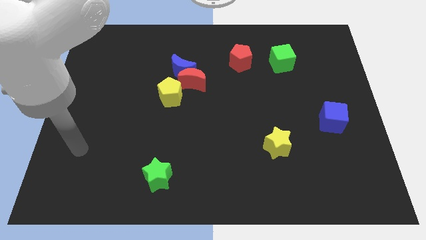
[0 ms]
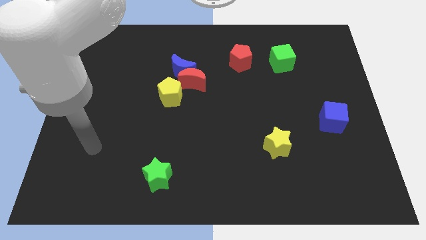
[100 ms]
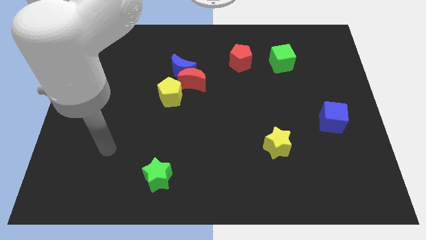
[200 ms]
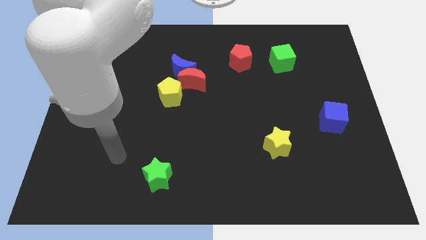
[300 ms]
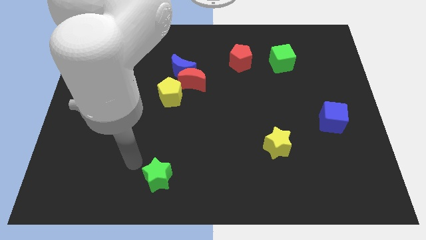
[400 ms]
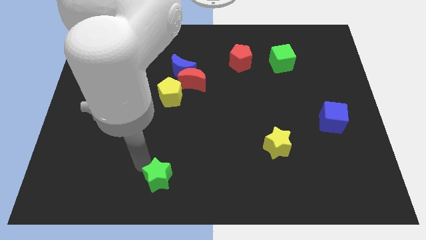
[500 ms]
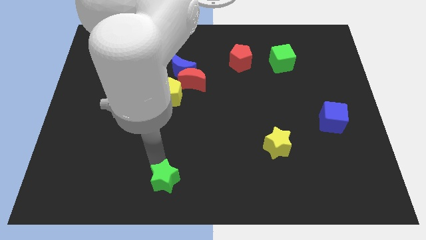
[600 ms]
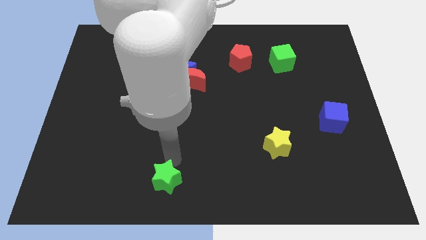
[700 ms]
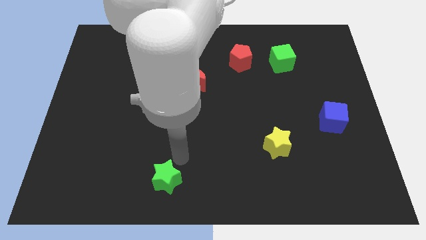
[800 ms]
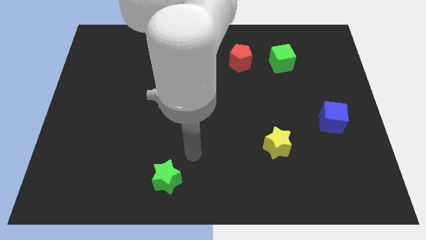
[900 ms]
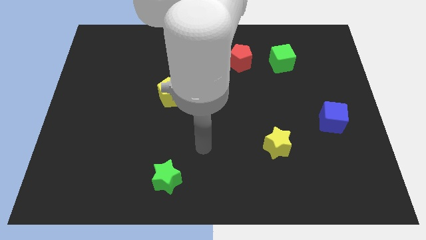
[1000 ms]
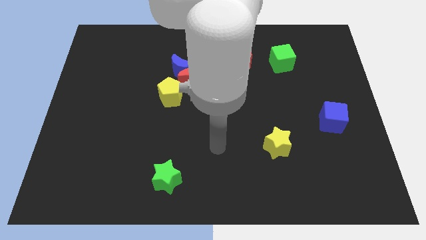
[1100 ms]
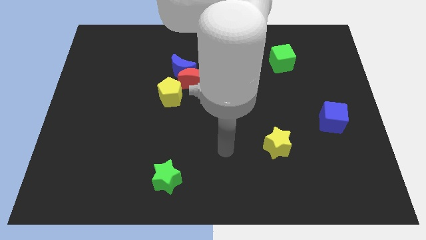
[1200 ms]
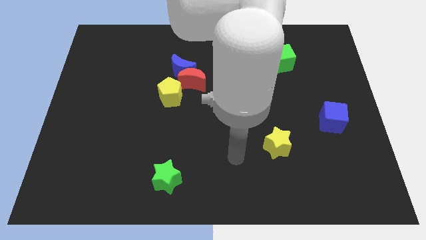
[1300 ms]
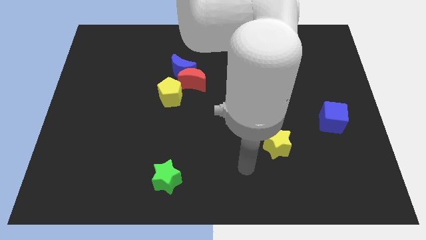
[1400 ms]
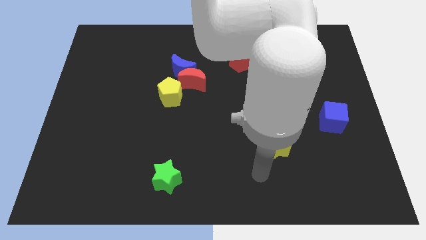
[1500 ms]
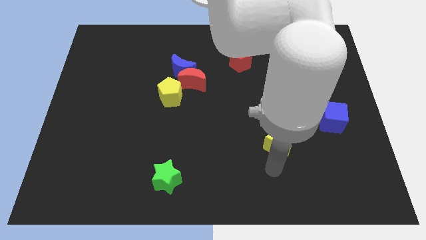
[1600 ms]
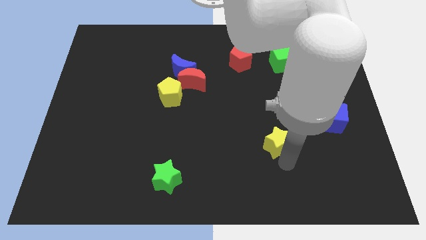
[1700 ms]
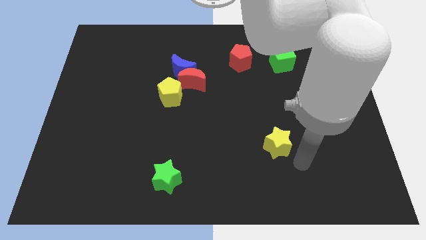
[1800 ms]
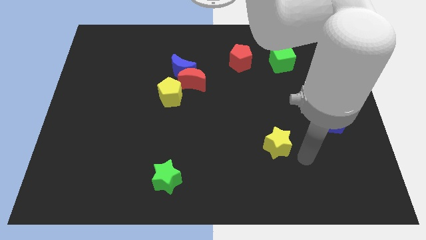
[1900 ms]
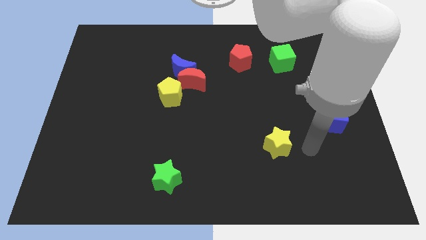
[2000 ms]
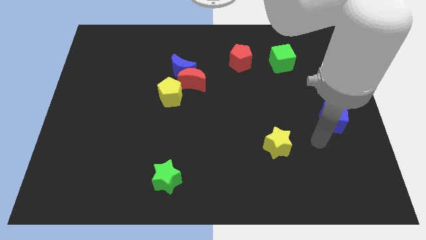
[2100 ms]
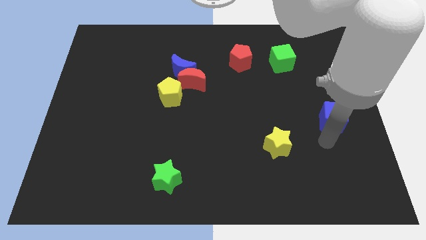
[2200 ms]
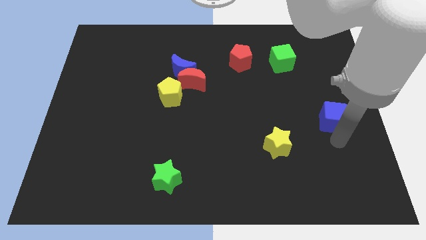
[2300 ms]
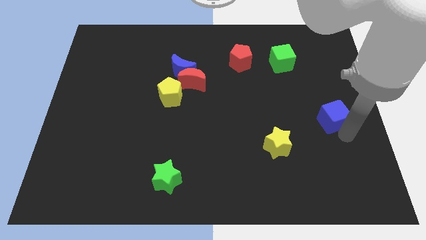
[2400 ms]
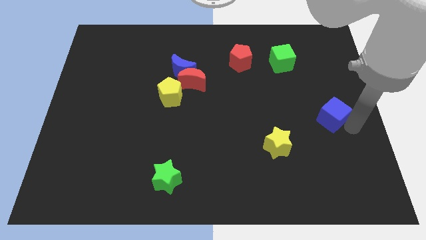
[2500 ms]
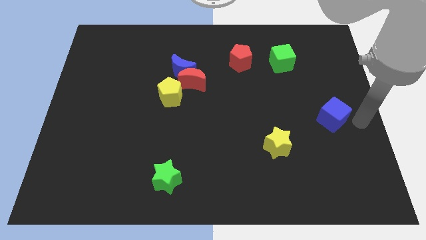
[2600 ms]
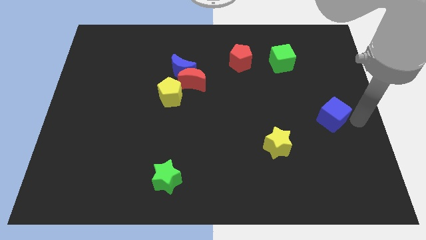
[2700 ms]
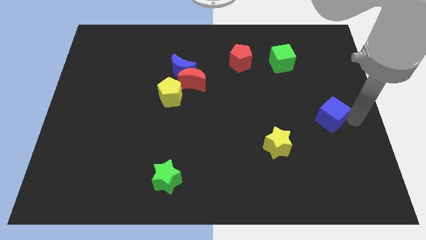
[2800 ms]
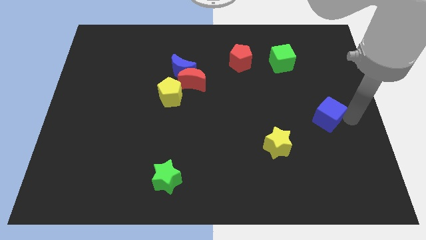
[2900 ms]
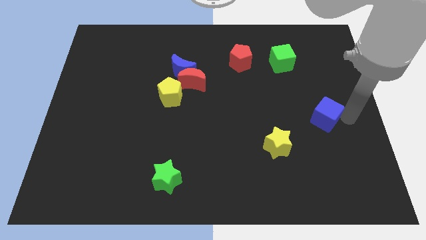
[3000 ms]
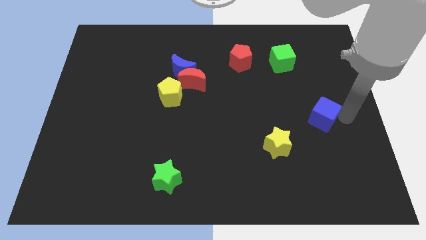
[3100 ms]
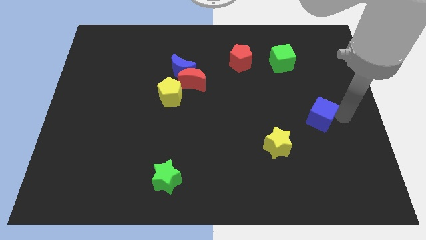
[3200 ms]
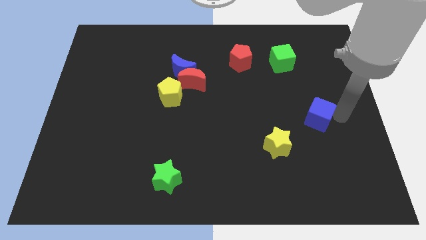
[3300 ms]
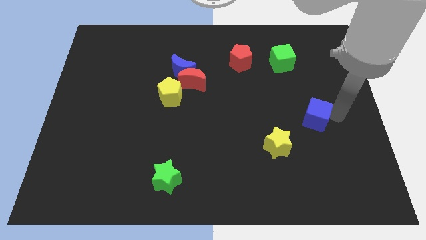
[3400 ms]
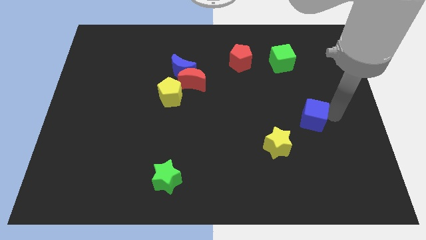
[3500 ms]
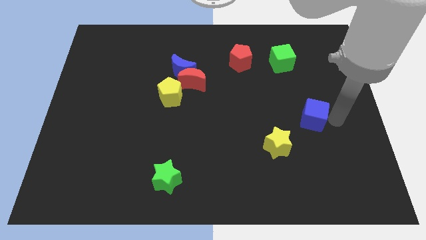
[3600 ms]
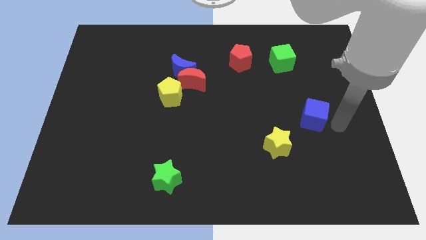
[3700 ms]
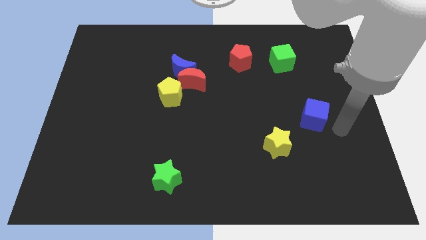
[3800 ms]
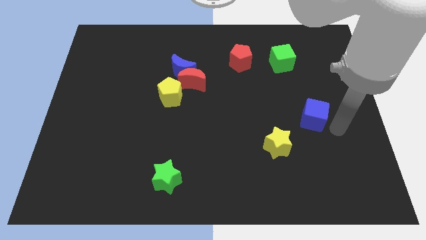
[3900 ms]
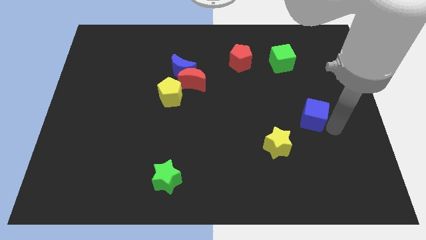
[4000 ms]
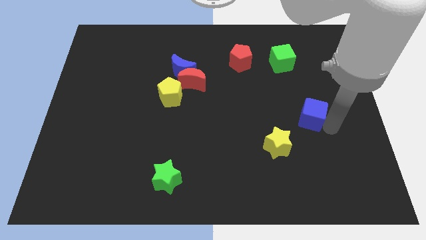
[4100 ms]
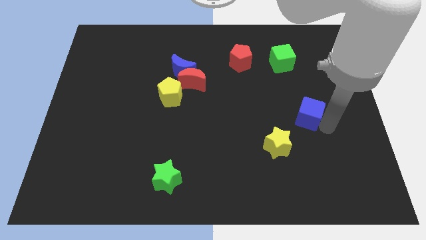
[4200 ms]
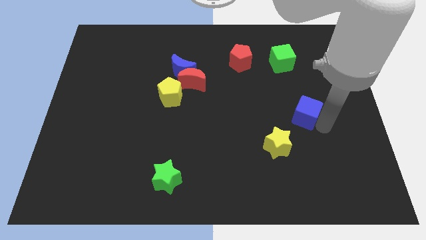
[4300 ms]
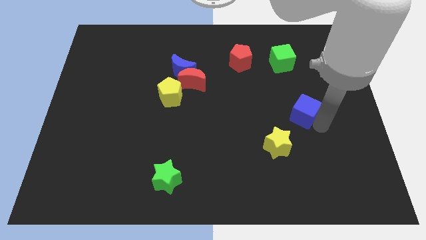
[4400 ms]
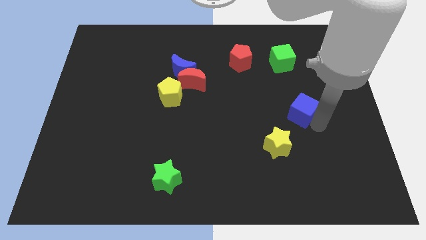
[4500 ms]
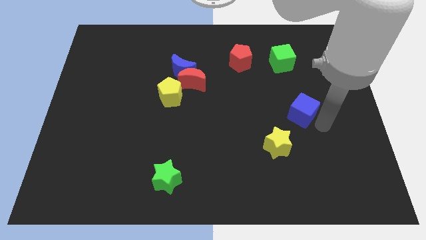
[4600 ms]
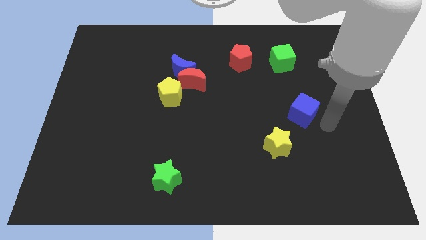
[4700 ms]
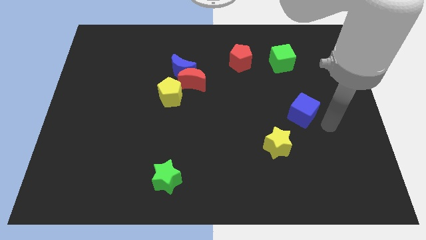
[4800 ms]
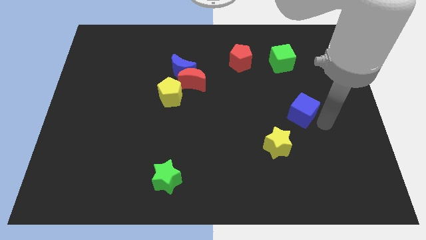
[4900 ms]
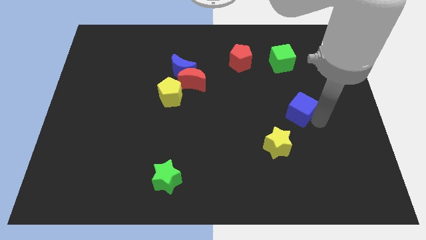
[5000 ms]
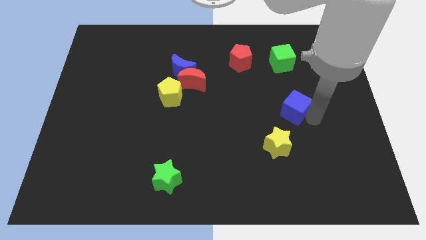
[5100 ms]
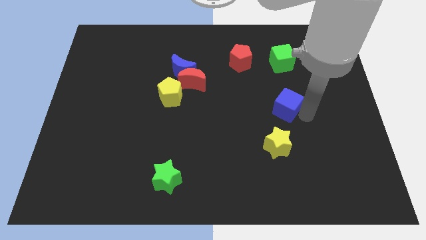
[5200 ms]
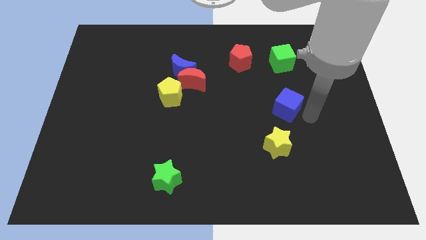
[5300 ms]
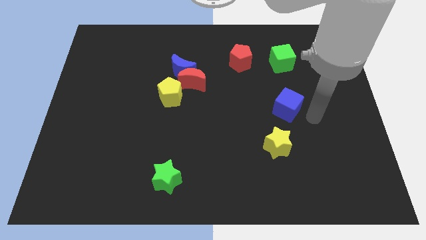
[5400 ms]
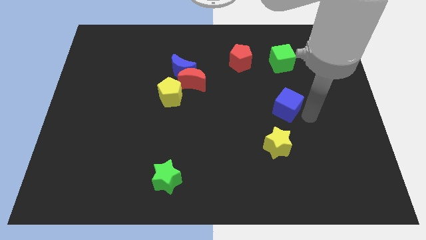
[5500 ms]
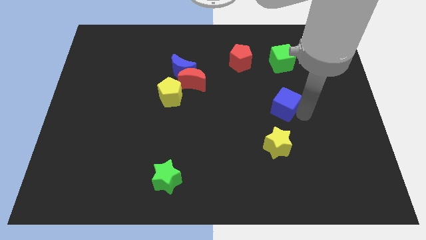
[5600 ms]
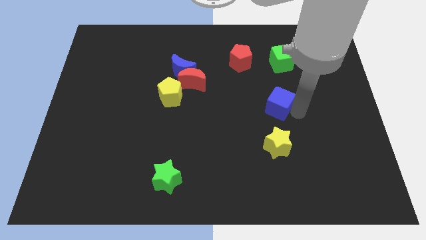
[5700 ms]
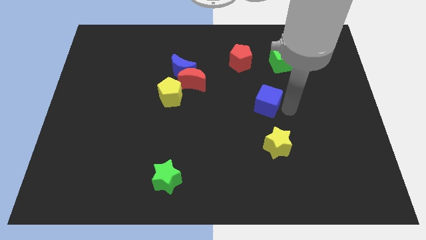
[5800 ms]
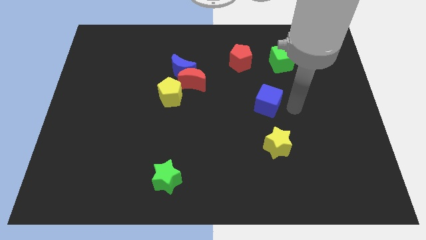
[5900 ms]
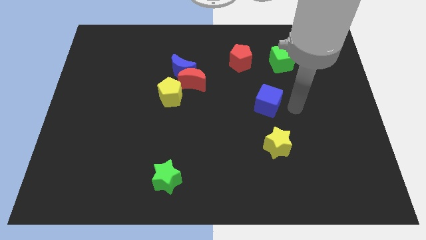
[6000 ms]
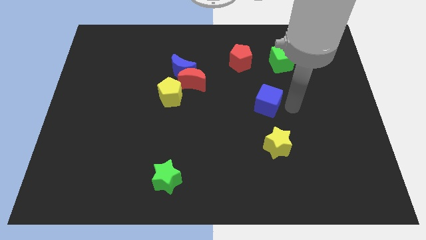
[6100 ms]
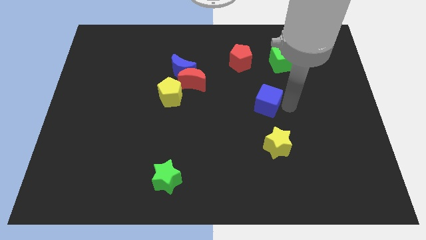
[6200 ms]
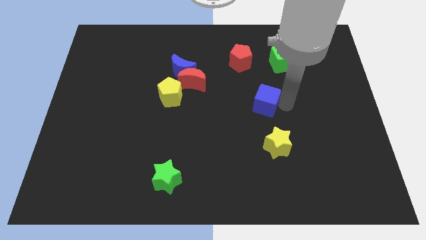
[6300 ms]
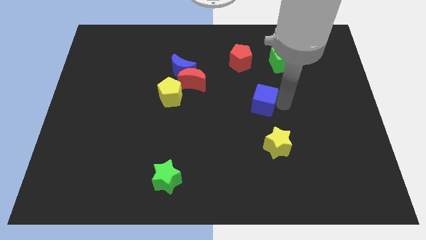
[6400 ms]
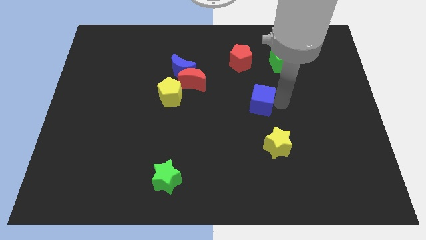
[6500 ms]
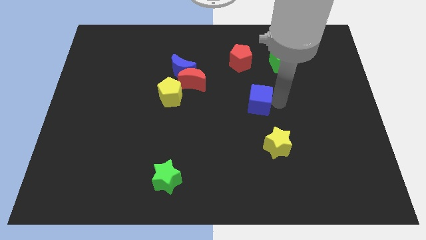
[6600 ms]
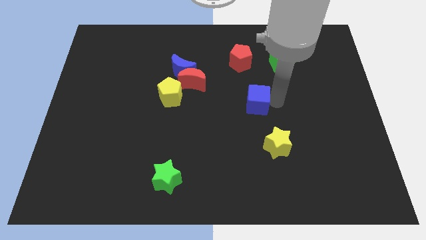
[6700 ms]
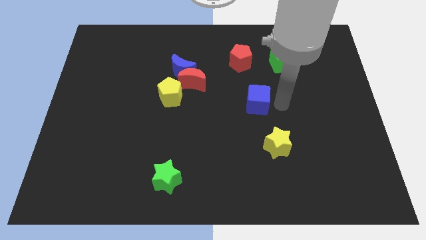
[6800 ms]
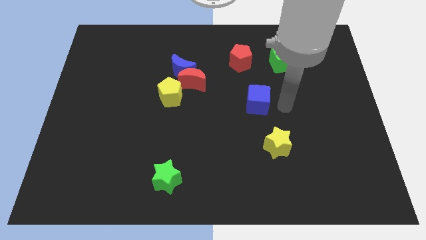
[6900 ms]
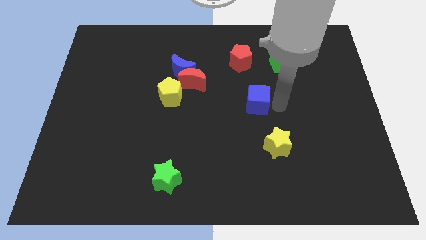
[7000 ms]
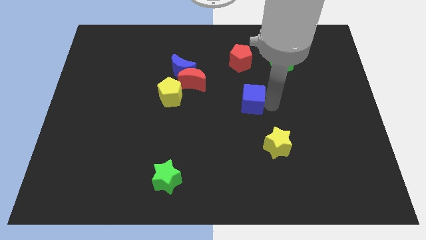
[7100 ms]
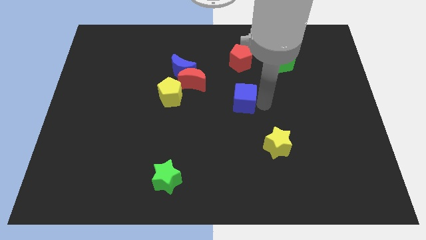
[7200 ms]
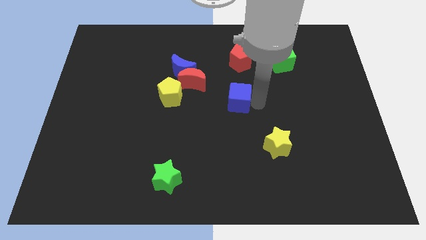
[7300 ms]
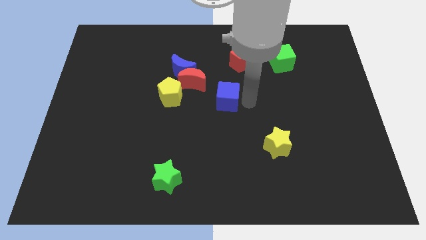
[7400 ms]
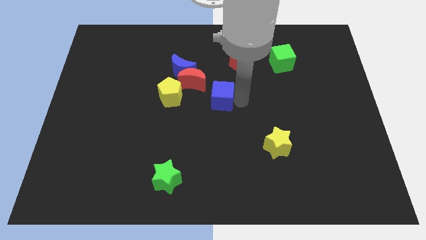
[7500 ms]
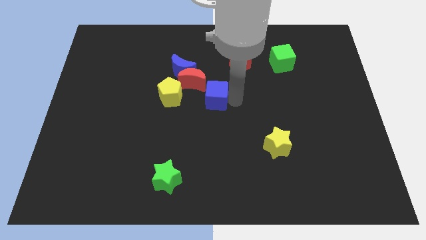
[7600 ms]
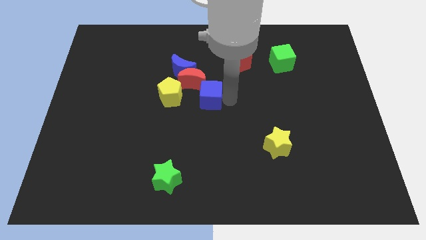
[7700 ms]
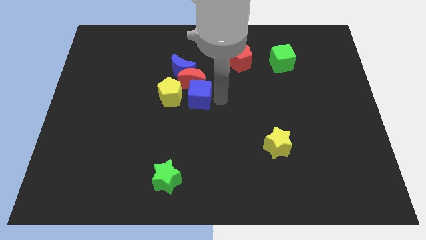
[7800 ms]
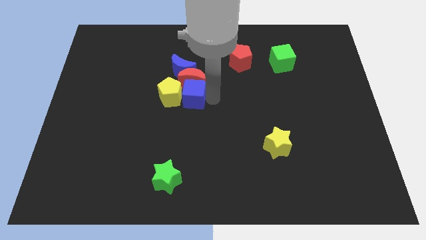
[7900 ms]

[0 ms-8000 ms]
put the blue cube next to the yellow pentagon
